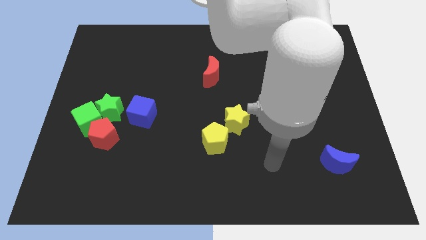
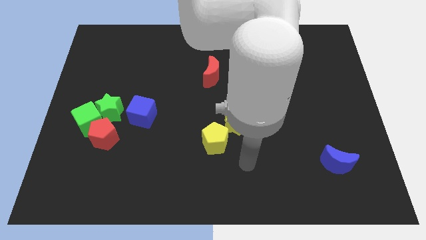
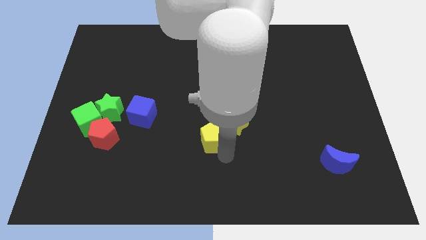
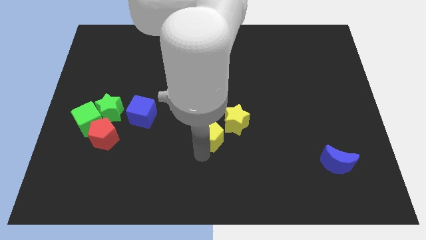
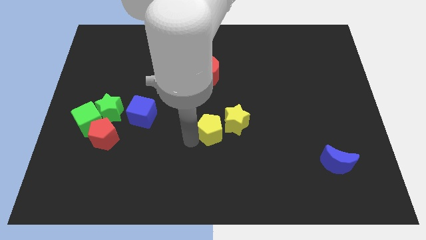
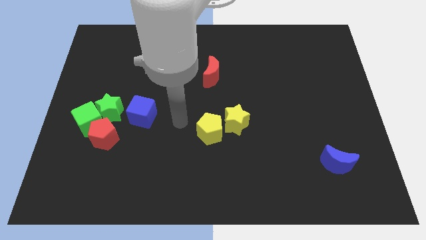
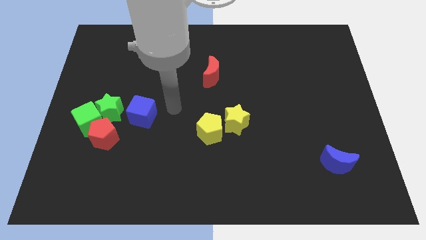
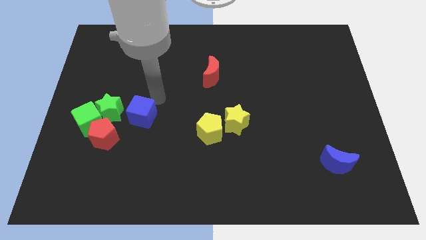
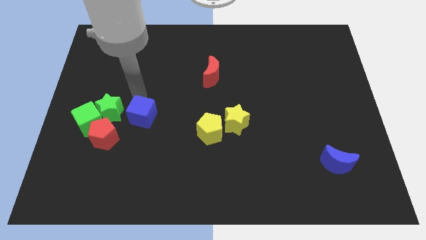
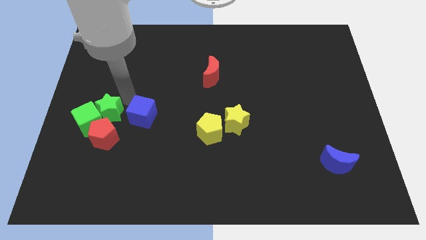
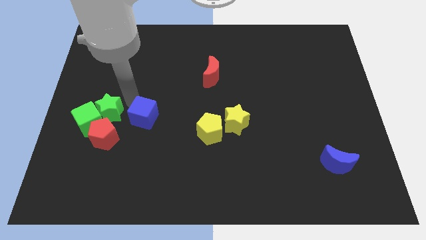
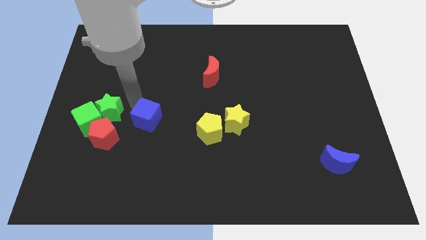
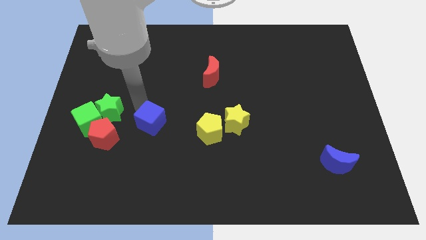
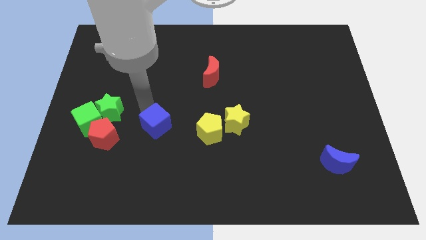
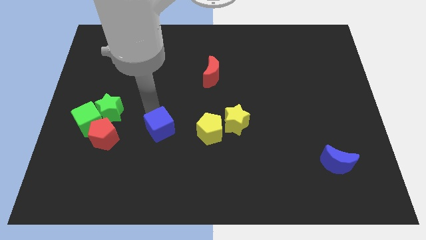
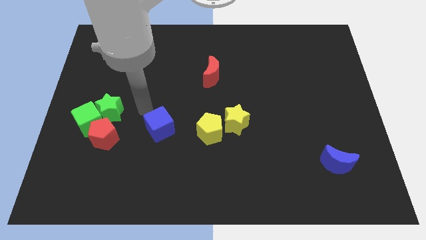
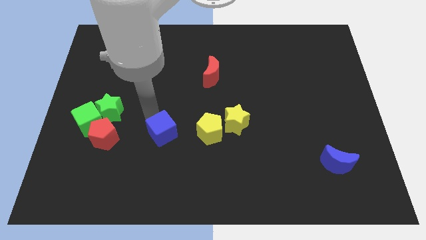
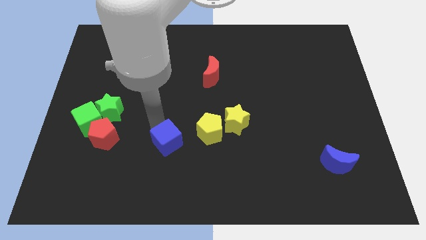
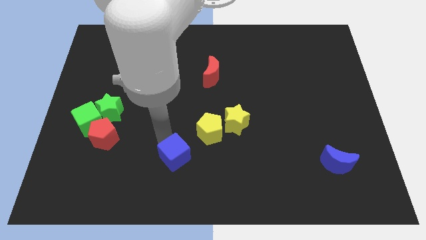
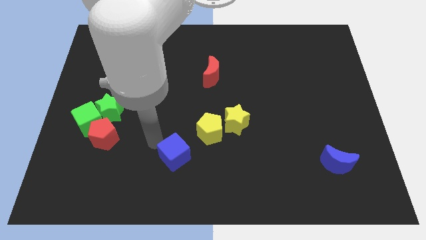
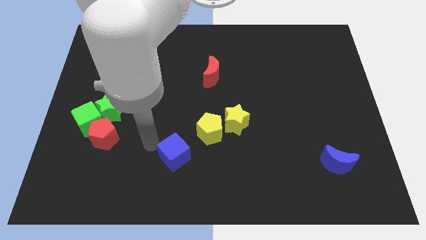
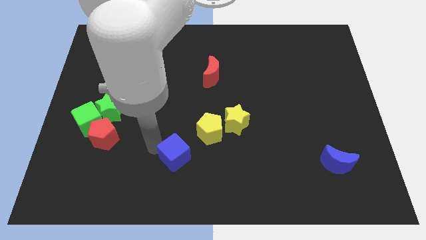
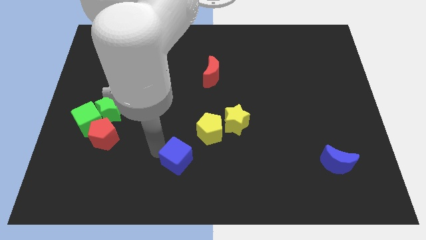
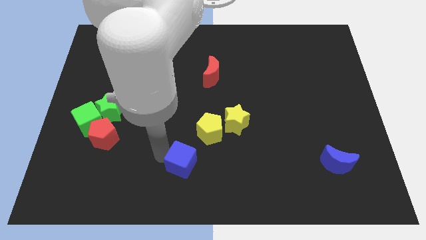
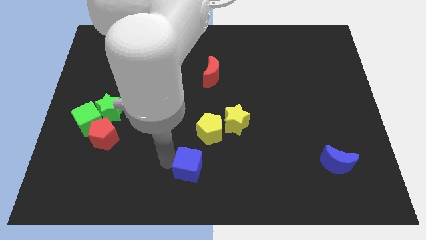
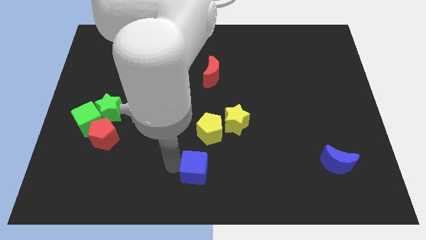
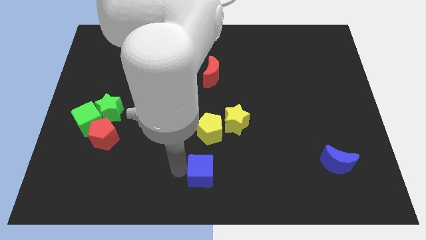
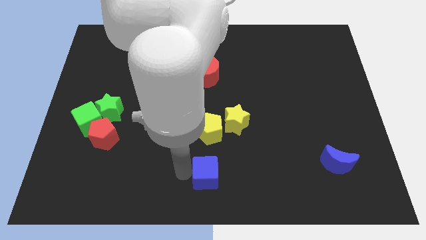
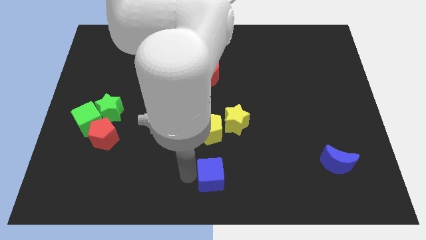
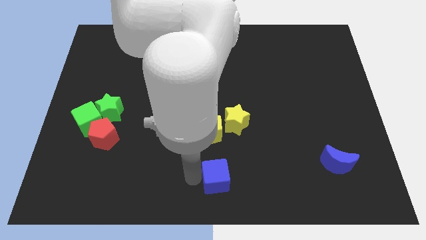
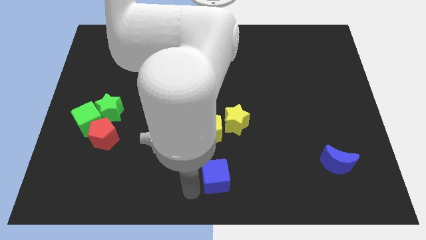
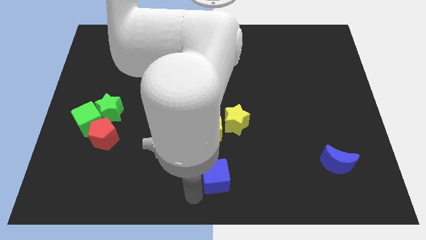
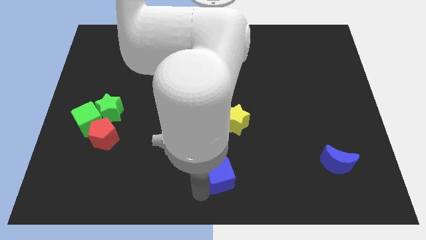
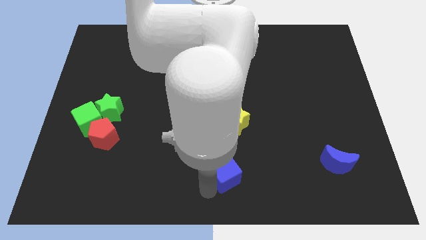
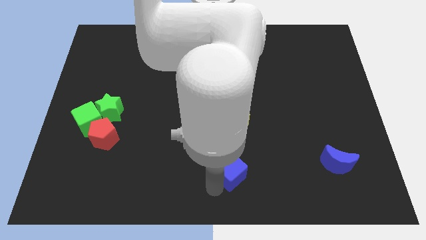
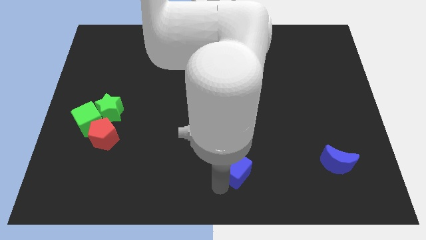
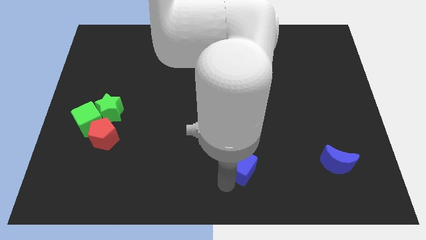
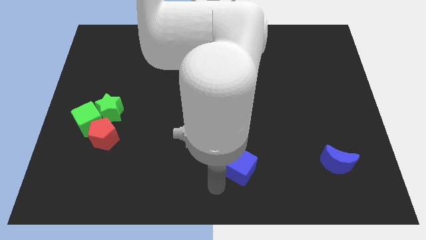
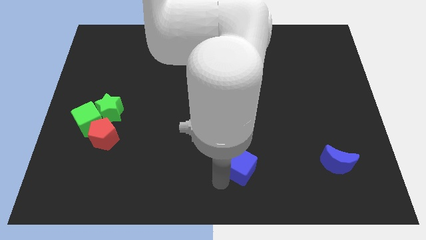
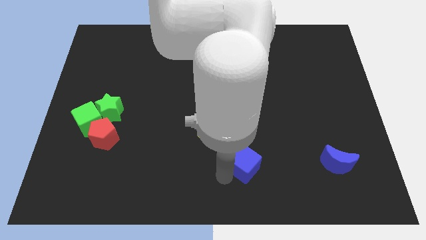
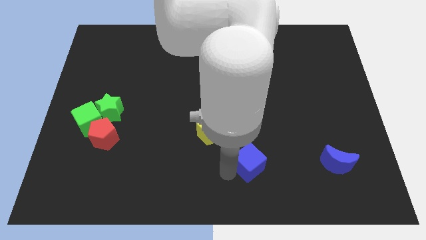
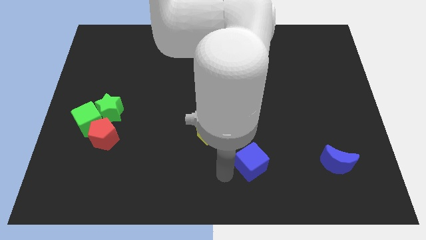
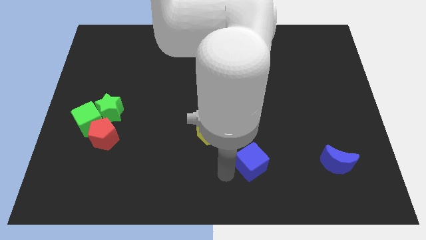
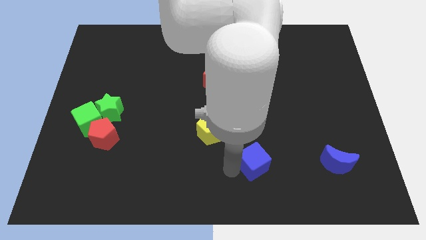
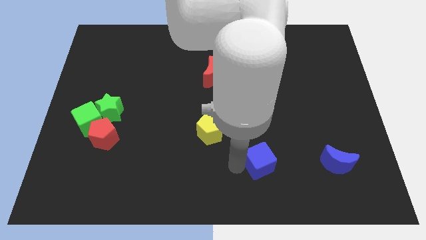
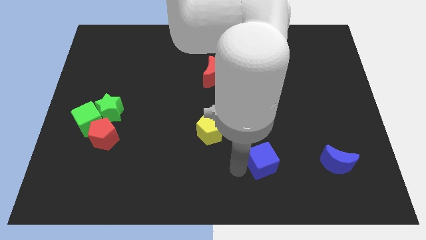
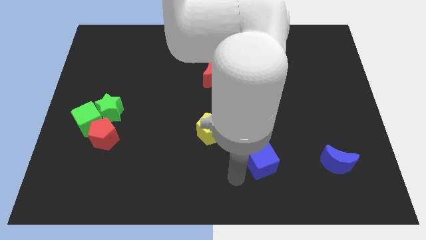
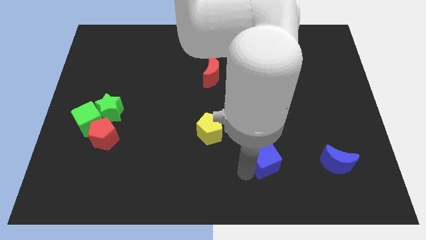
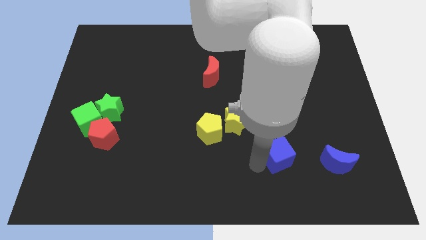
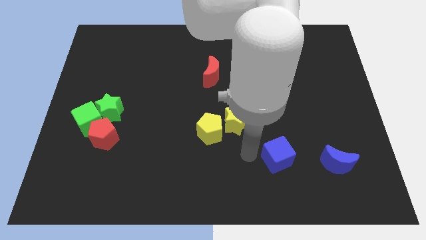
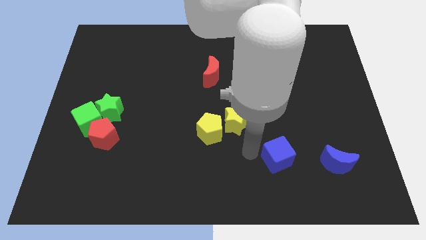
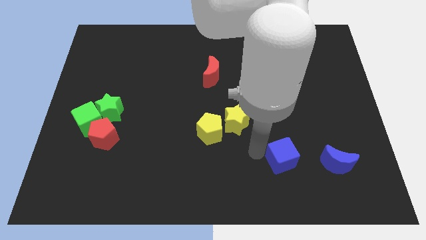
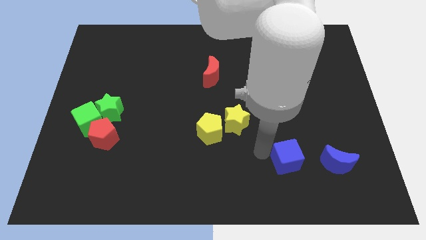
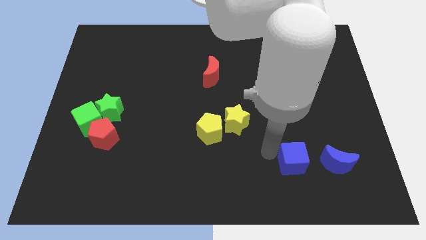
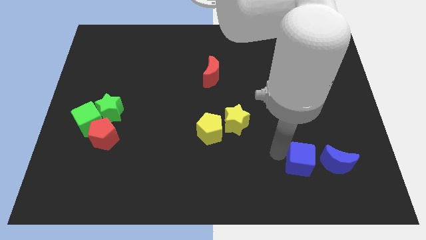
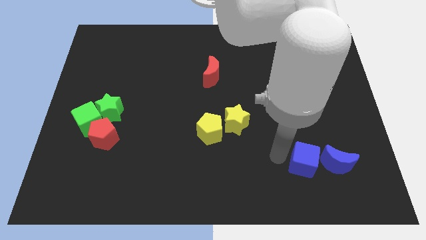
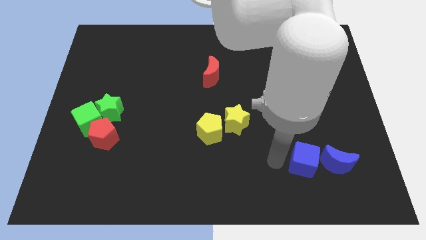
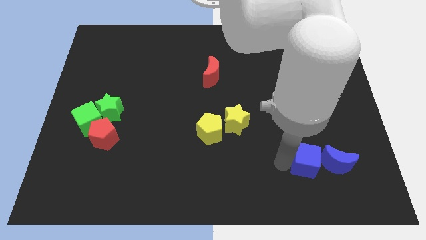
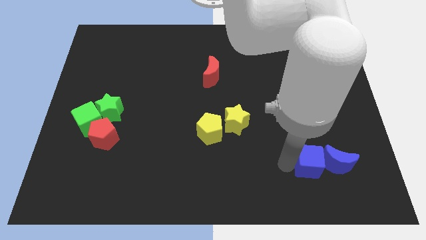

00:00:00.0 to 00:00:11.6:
move the blue cube towards the blue moon

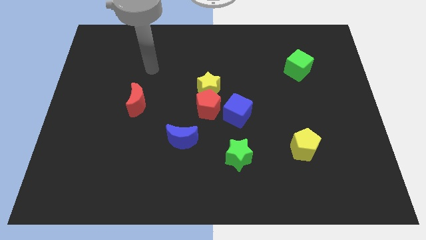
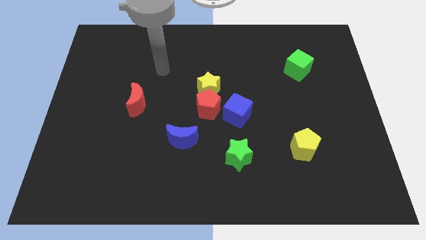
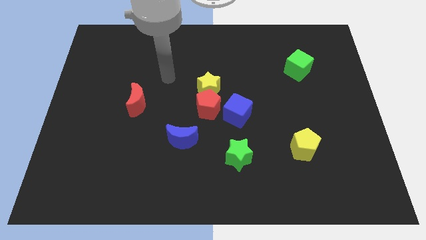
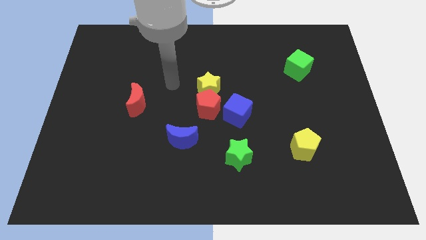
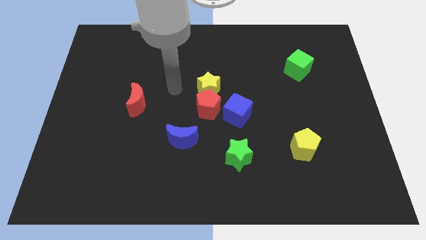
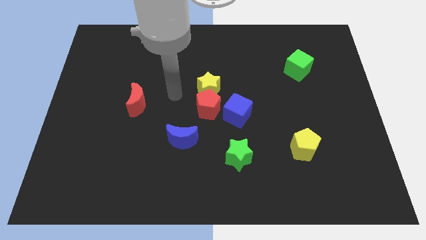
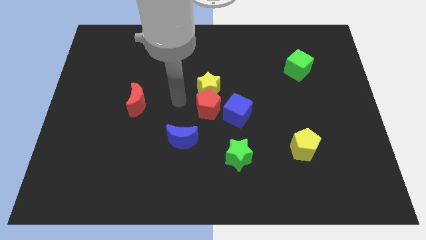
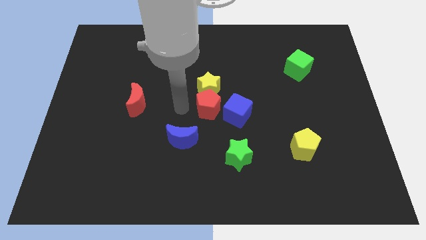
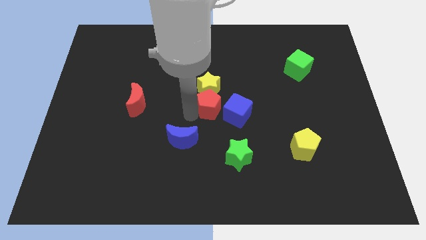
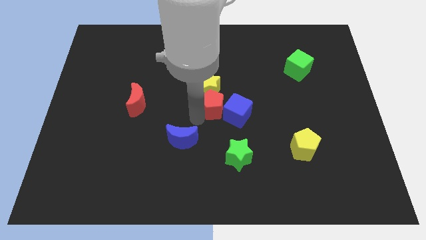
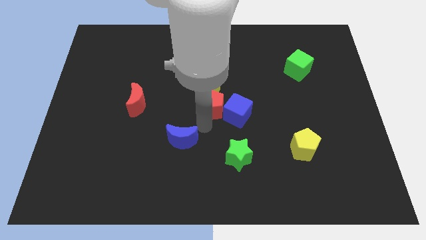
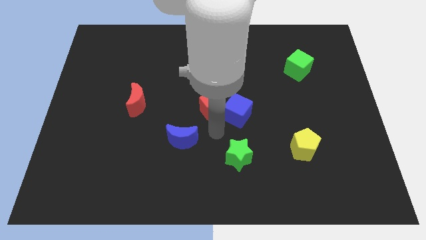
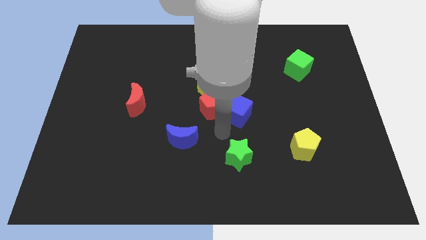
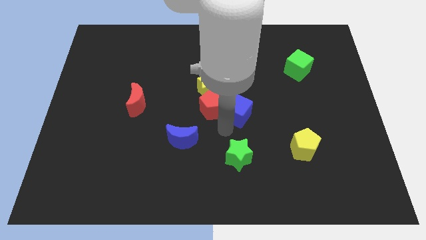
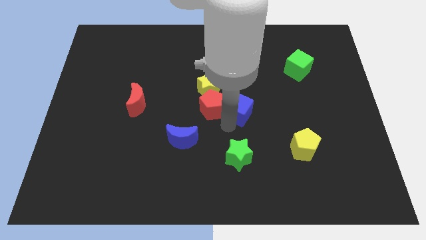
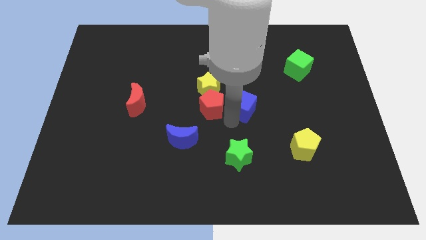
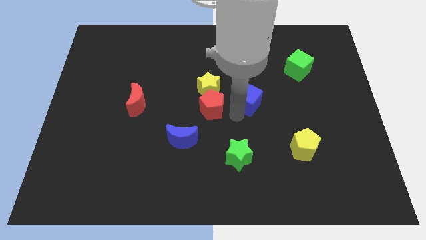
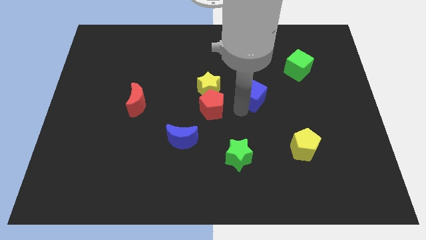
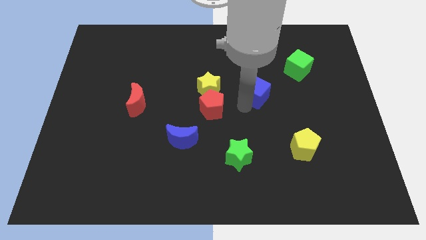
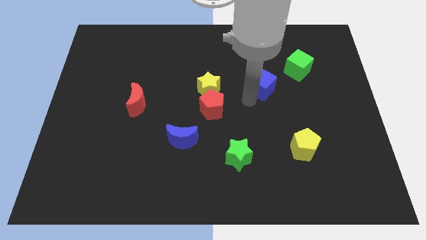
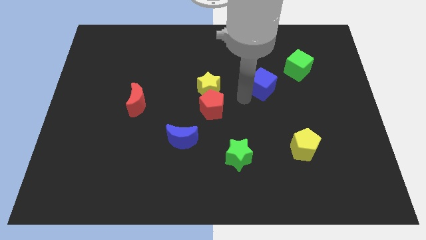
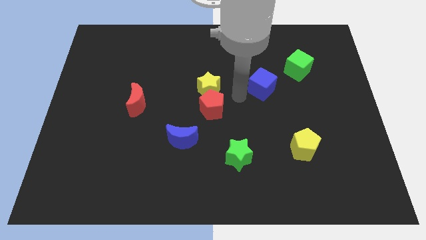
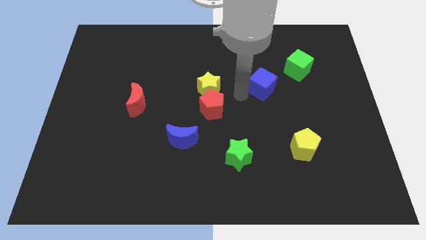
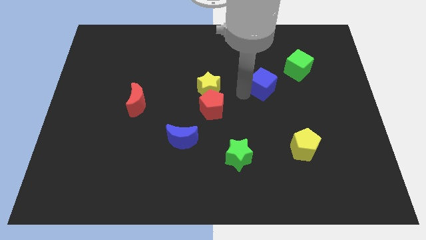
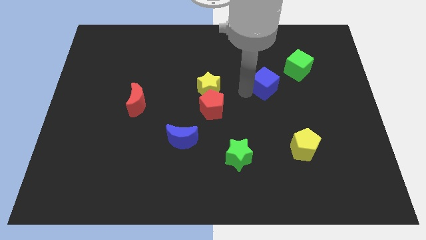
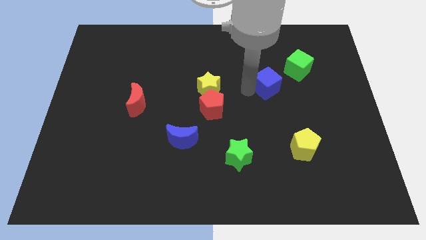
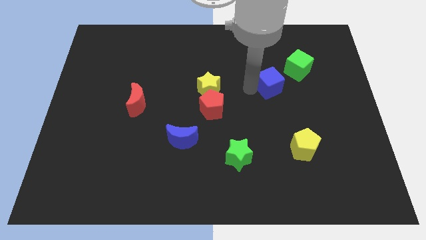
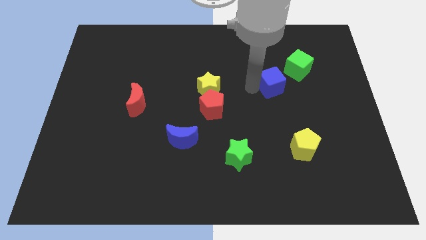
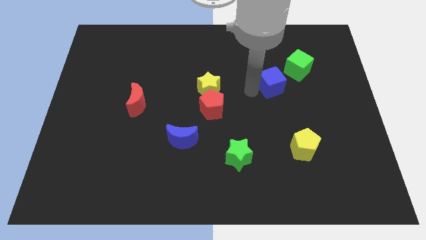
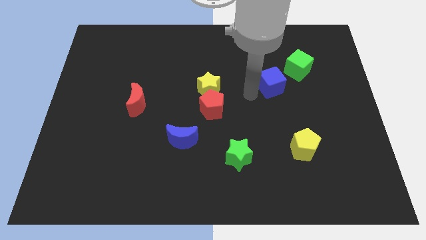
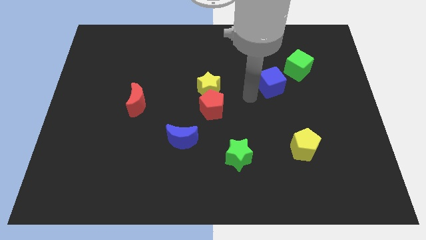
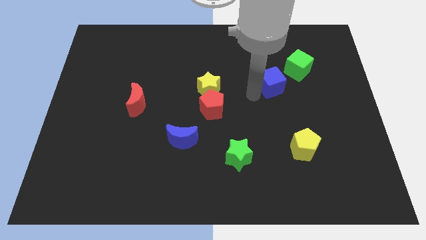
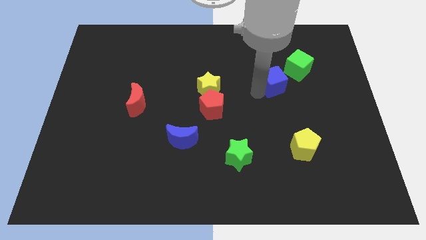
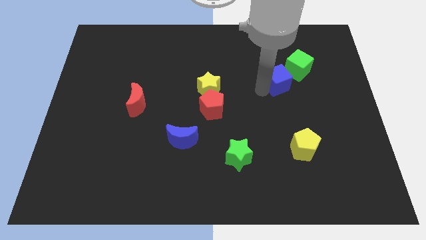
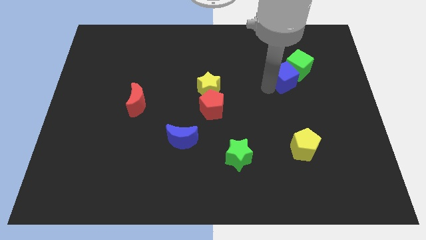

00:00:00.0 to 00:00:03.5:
put the blue cube next to the green cube
